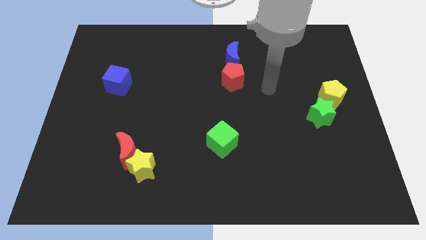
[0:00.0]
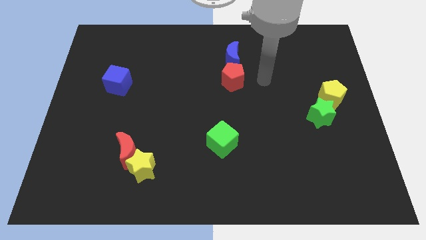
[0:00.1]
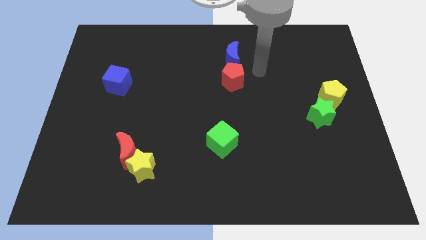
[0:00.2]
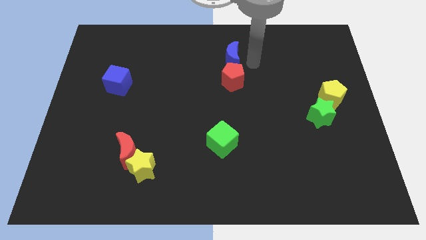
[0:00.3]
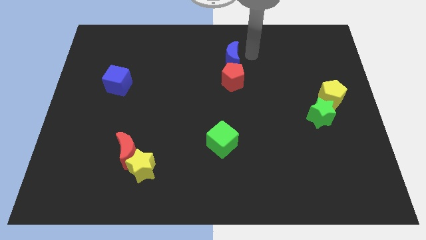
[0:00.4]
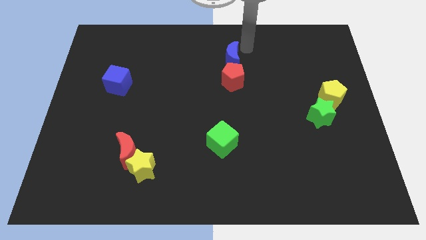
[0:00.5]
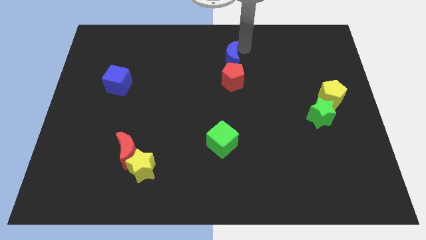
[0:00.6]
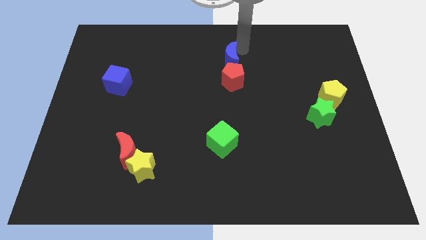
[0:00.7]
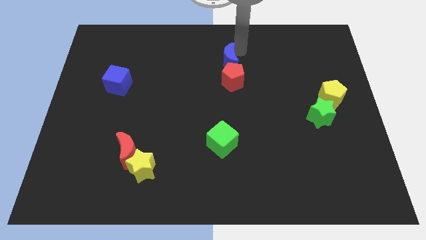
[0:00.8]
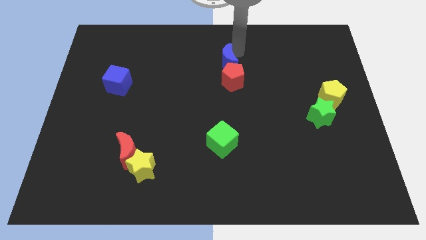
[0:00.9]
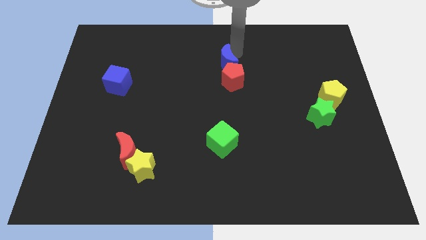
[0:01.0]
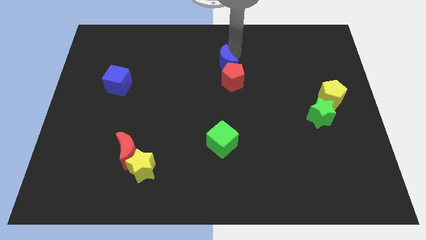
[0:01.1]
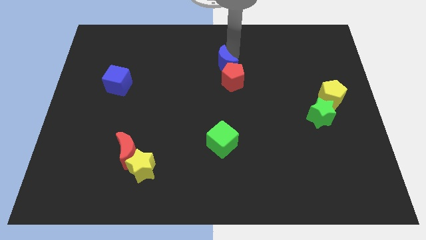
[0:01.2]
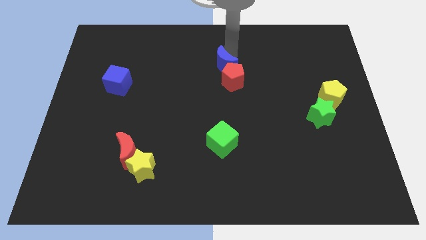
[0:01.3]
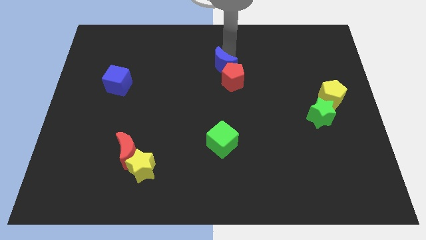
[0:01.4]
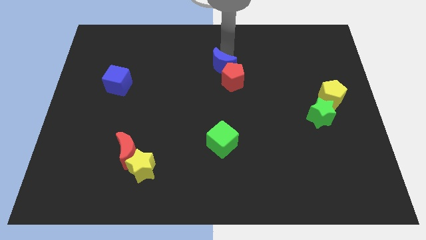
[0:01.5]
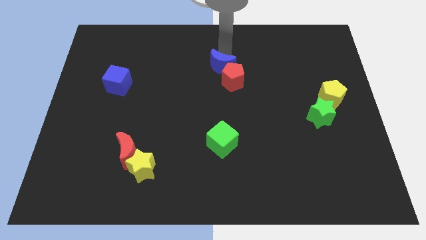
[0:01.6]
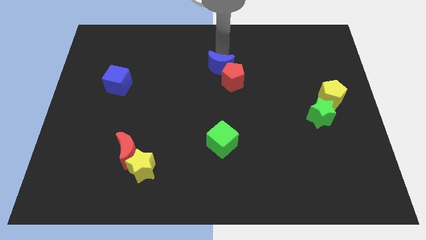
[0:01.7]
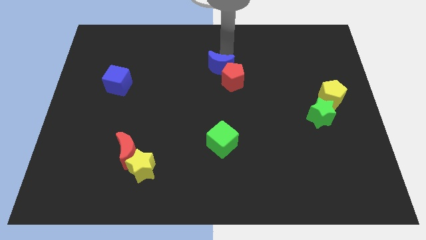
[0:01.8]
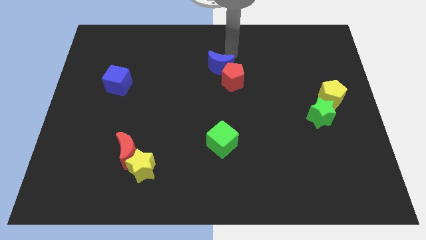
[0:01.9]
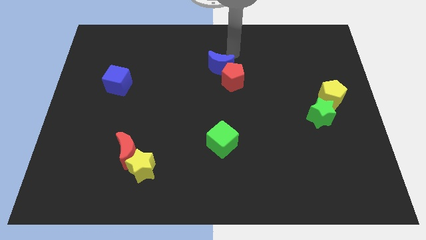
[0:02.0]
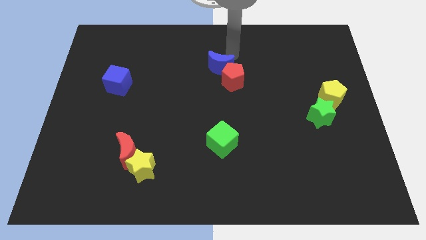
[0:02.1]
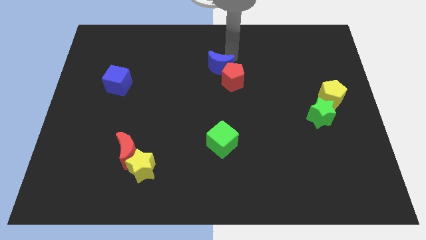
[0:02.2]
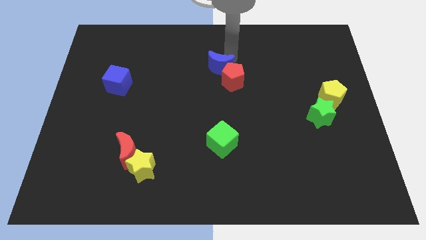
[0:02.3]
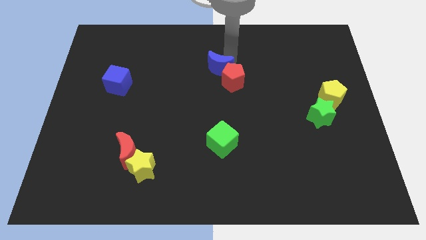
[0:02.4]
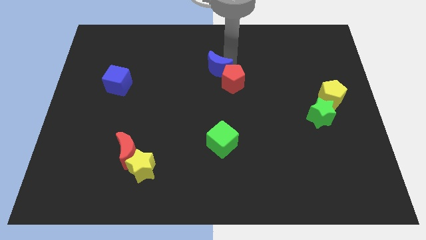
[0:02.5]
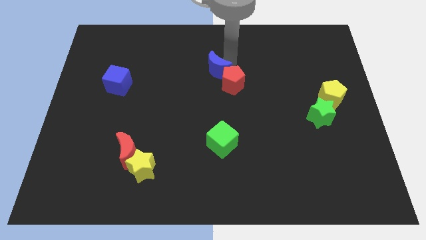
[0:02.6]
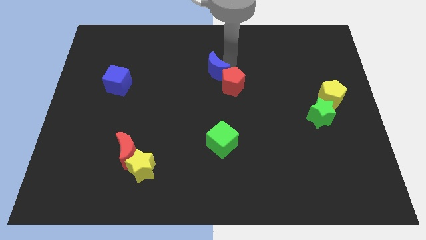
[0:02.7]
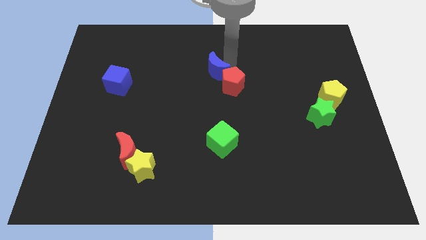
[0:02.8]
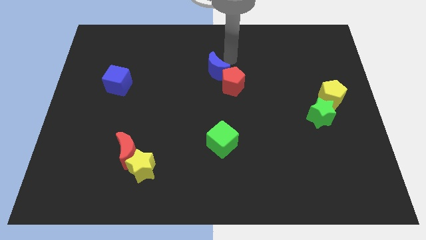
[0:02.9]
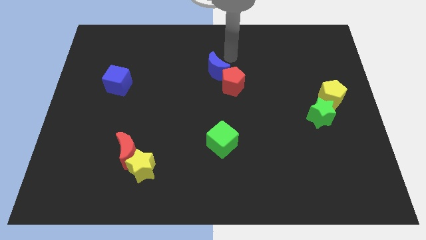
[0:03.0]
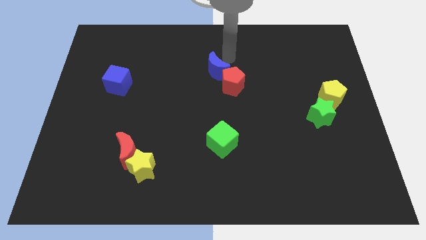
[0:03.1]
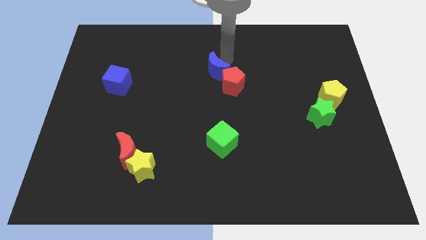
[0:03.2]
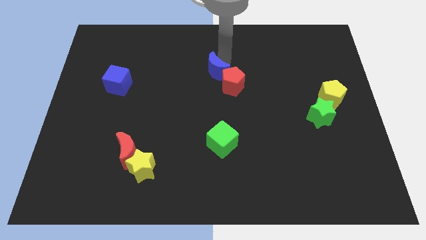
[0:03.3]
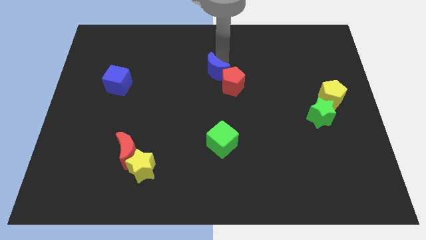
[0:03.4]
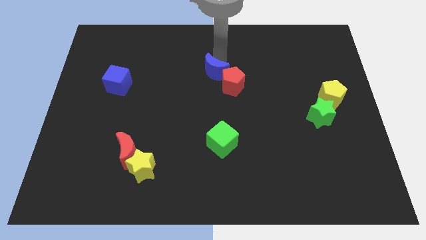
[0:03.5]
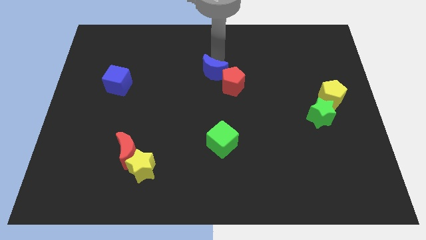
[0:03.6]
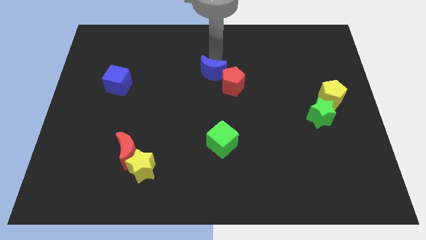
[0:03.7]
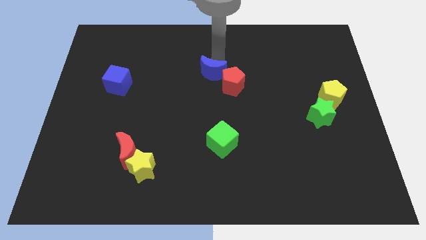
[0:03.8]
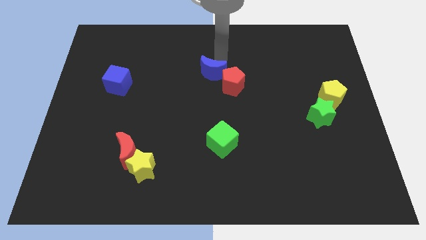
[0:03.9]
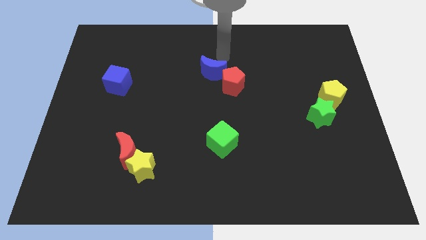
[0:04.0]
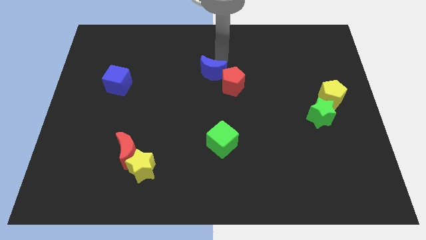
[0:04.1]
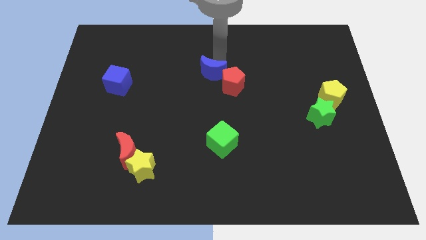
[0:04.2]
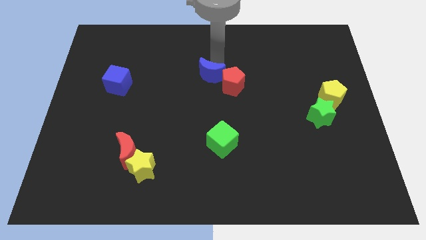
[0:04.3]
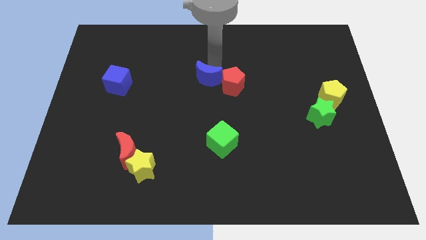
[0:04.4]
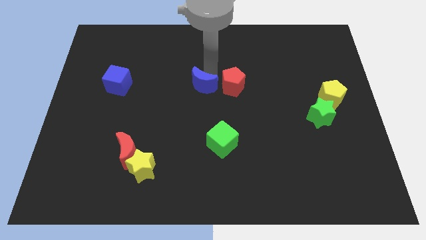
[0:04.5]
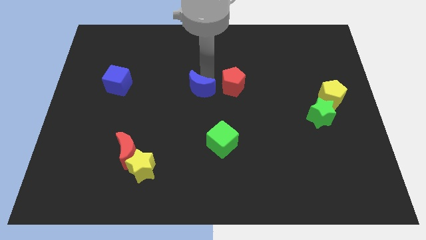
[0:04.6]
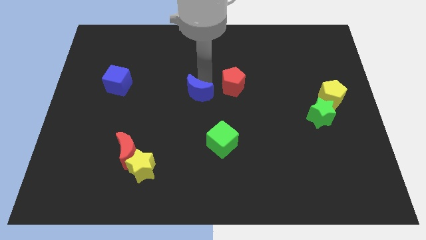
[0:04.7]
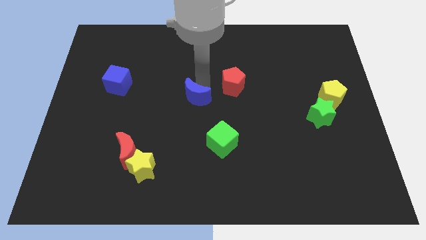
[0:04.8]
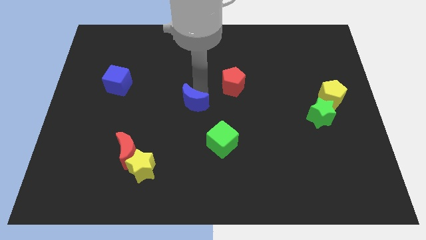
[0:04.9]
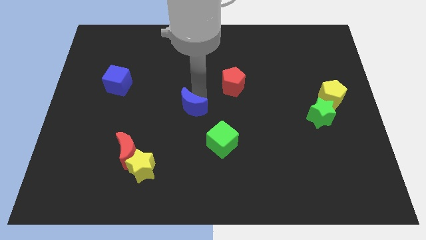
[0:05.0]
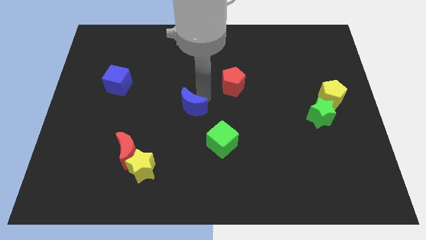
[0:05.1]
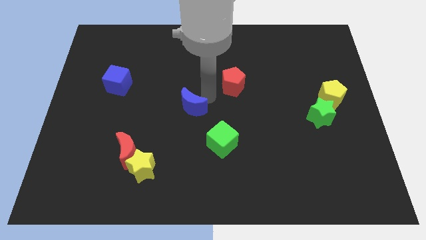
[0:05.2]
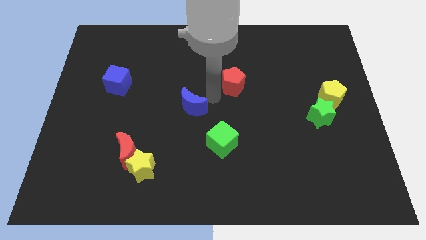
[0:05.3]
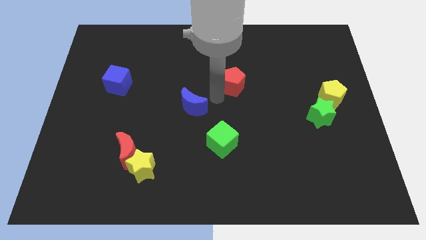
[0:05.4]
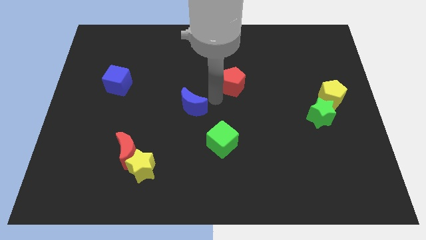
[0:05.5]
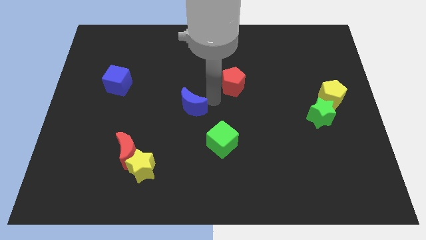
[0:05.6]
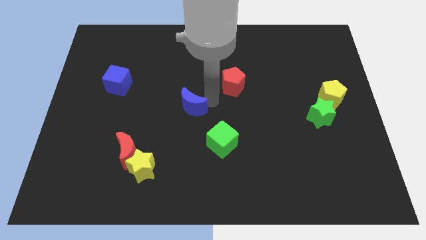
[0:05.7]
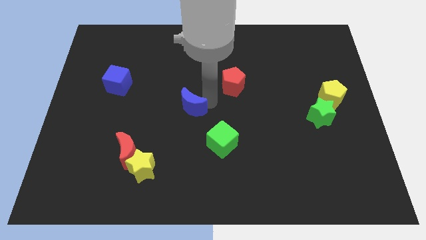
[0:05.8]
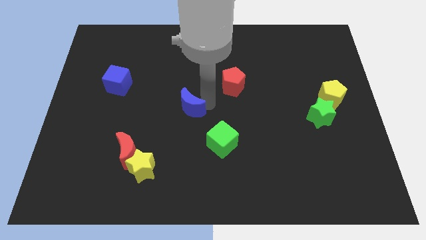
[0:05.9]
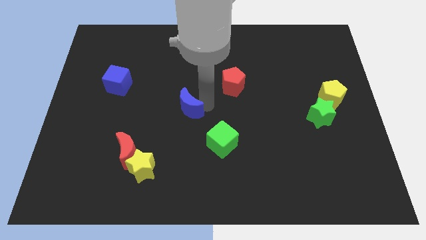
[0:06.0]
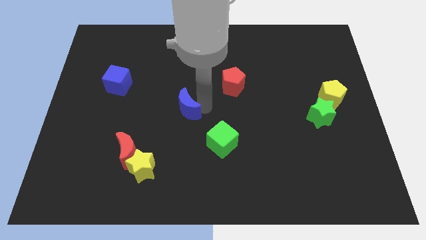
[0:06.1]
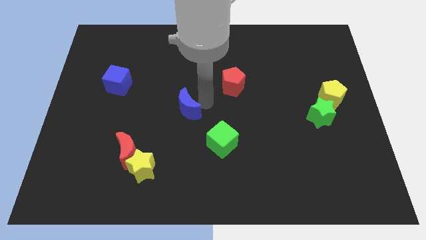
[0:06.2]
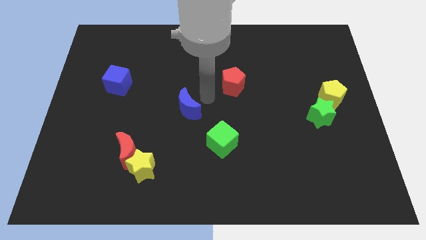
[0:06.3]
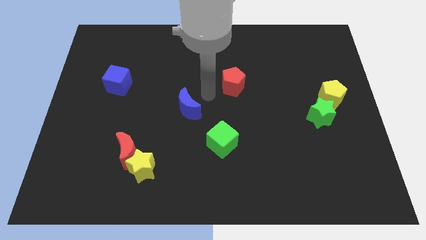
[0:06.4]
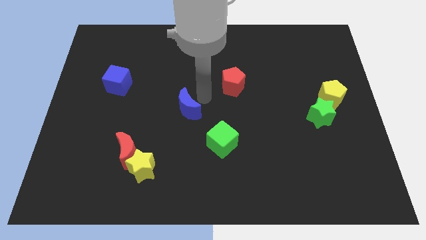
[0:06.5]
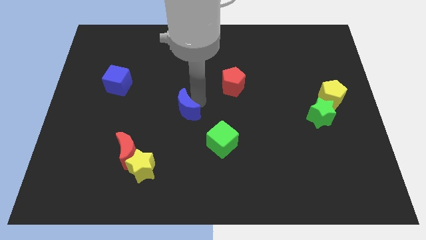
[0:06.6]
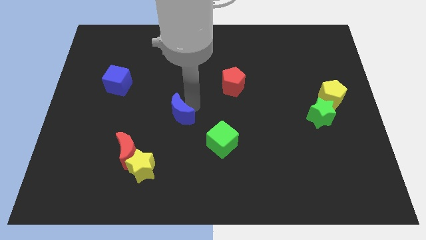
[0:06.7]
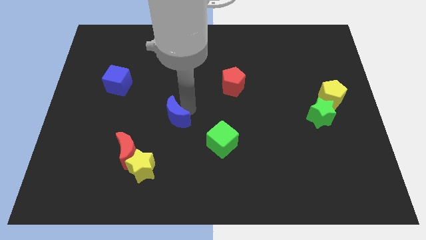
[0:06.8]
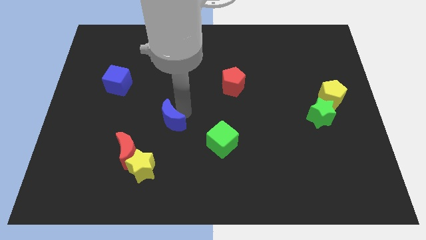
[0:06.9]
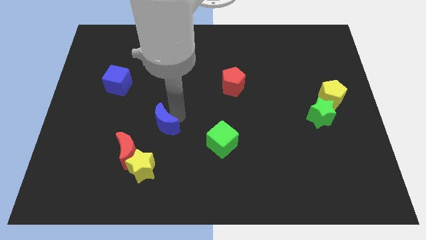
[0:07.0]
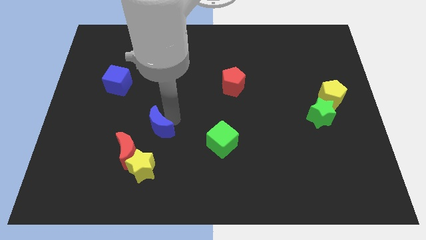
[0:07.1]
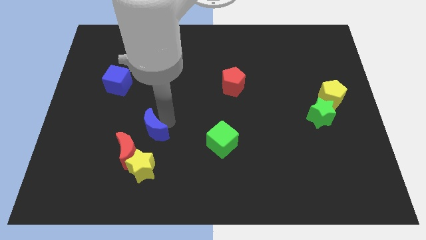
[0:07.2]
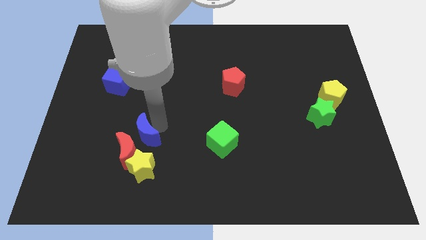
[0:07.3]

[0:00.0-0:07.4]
push the blue moon close to the red moon

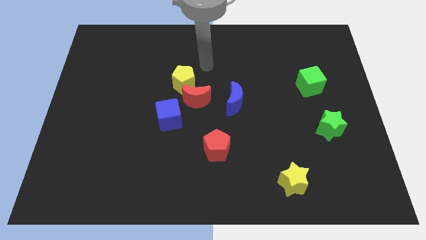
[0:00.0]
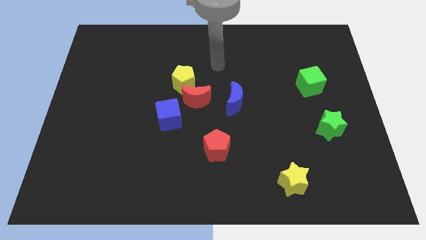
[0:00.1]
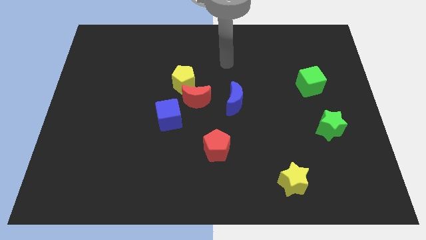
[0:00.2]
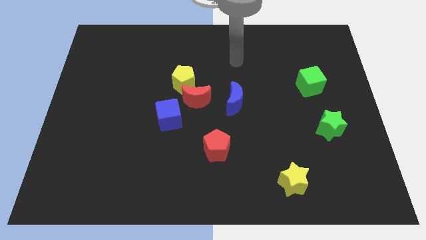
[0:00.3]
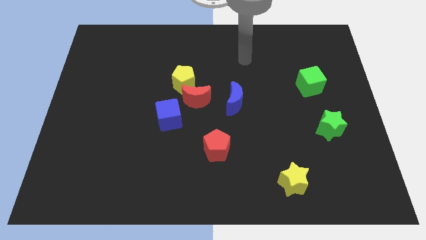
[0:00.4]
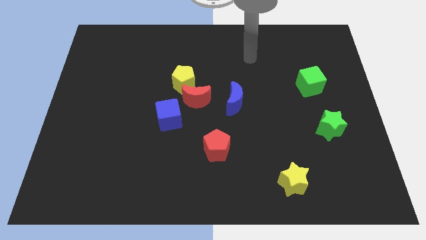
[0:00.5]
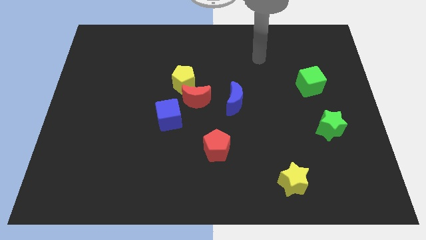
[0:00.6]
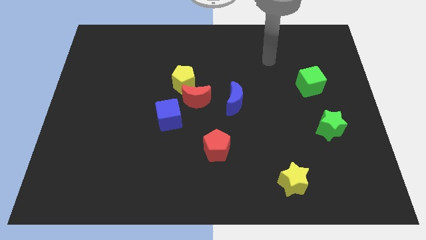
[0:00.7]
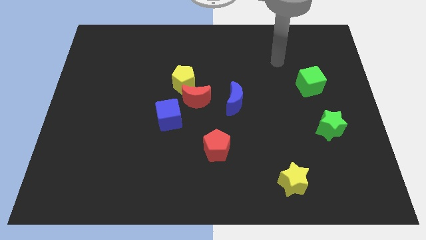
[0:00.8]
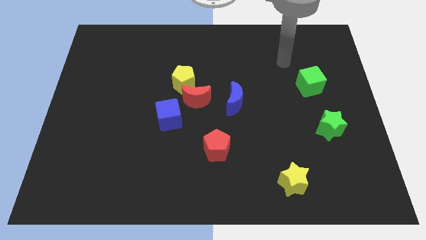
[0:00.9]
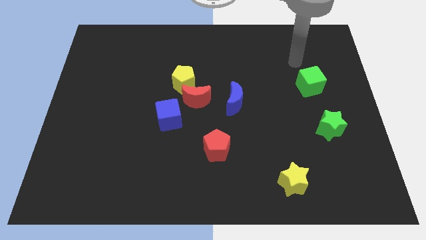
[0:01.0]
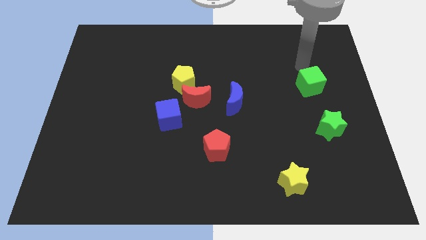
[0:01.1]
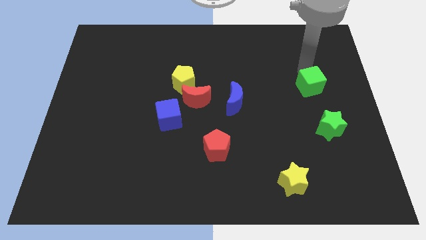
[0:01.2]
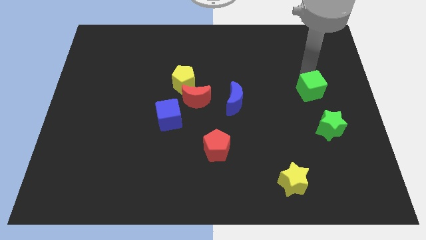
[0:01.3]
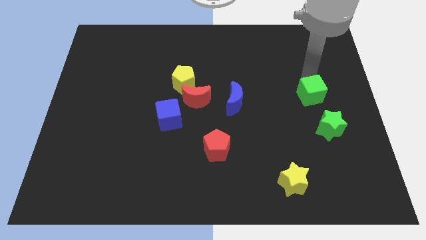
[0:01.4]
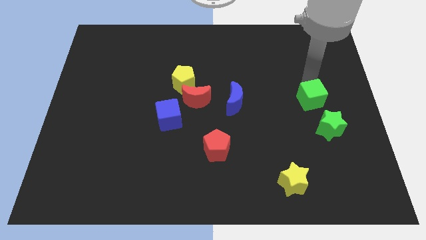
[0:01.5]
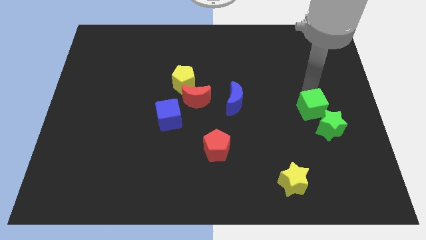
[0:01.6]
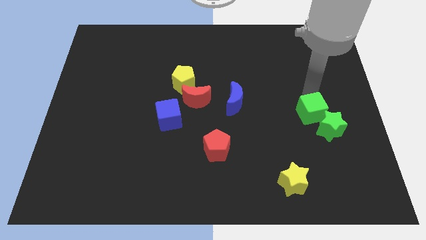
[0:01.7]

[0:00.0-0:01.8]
move the green cube close to the green star
